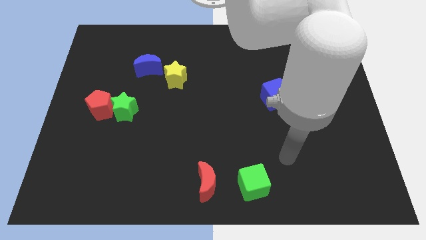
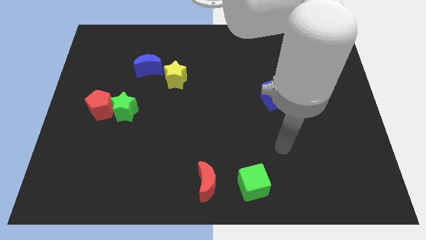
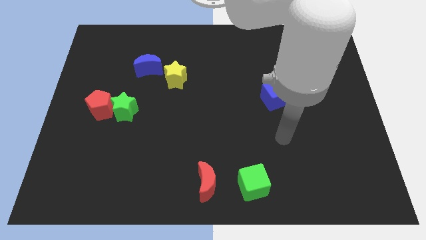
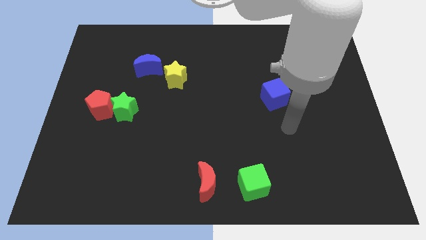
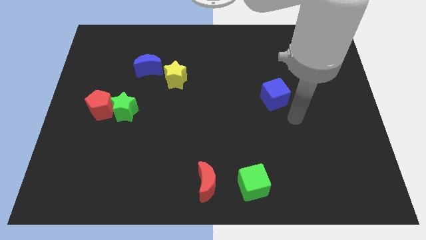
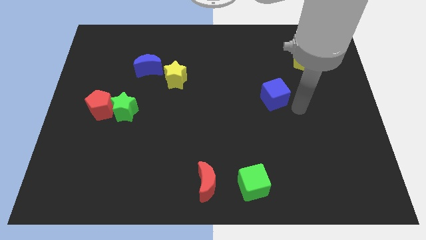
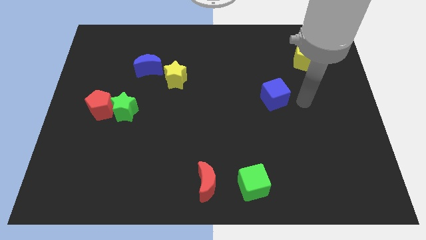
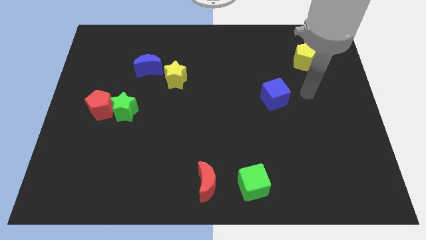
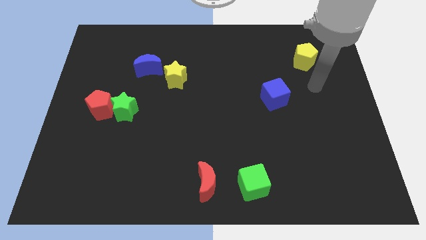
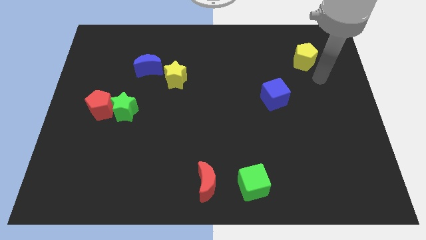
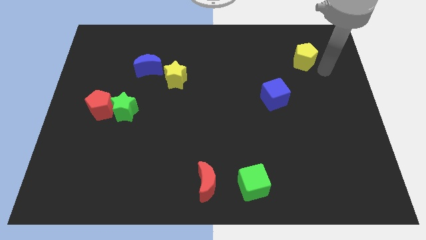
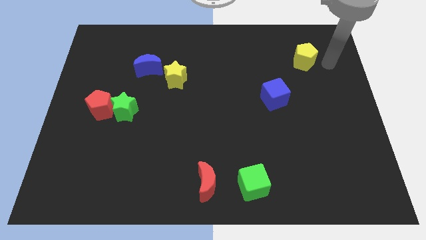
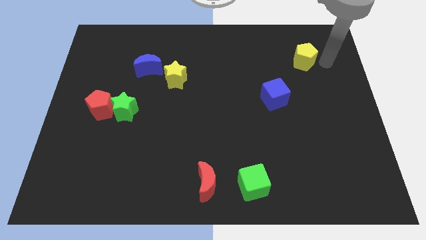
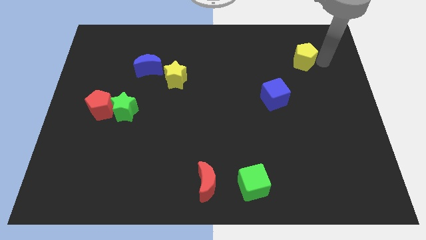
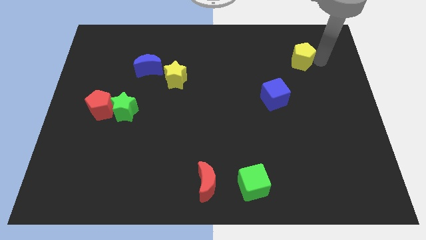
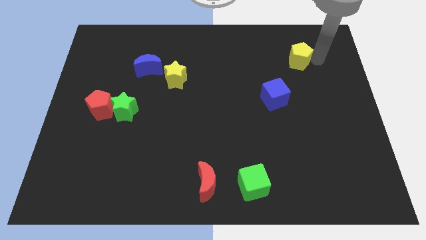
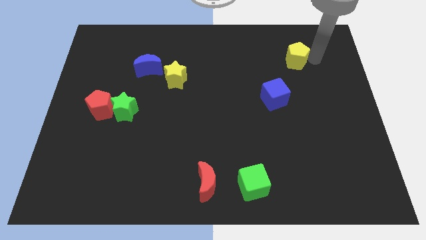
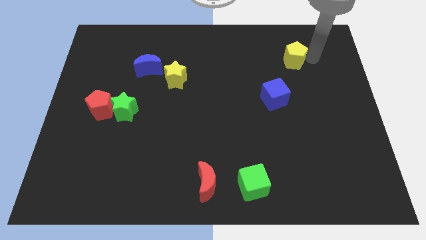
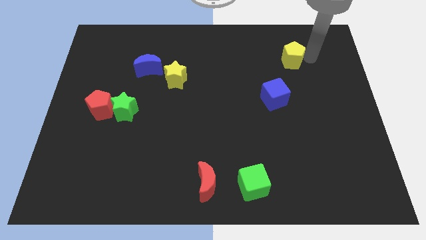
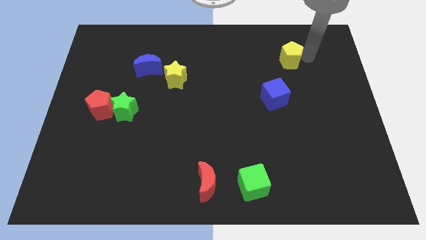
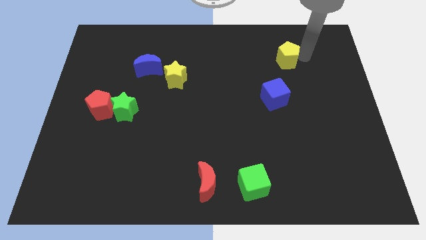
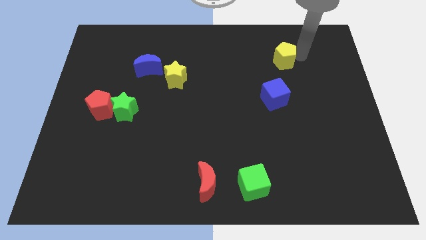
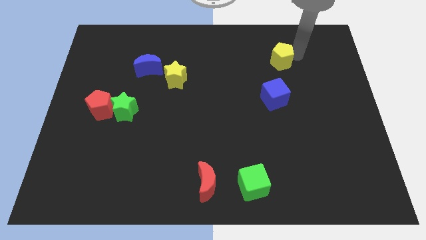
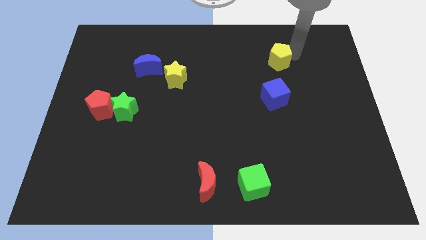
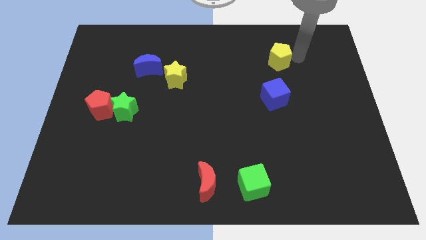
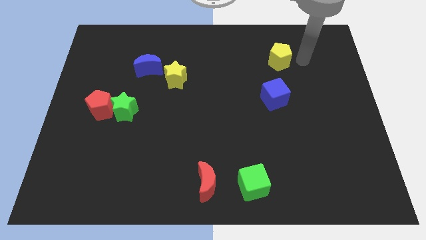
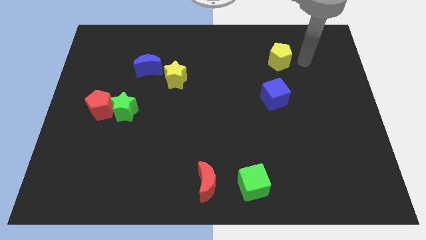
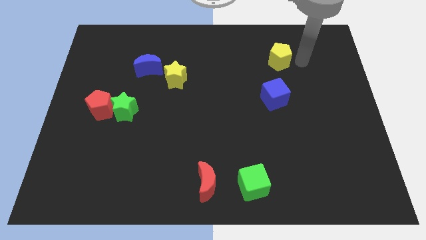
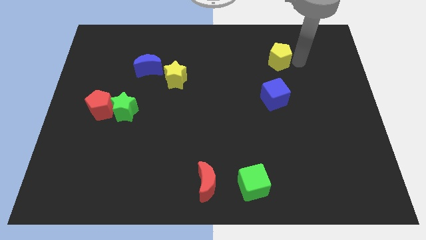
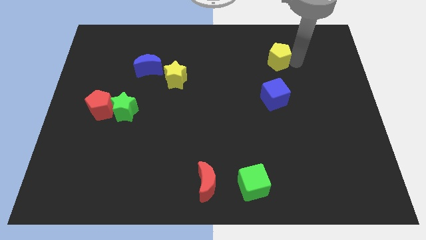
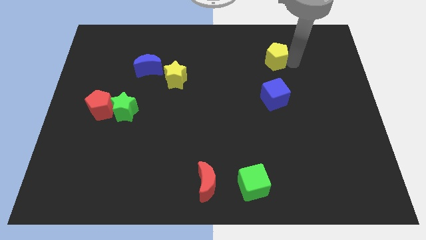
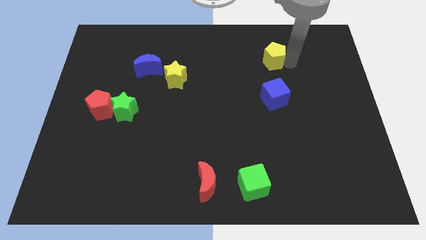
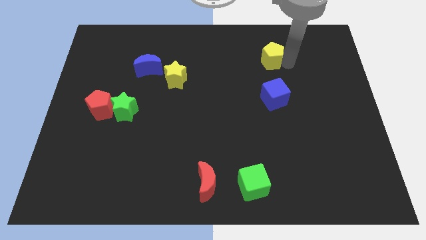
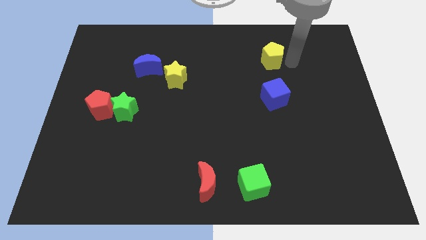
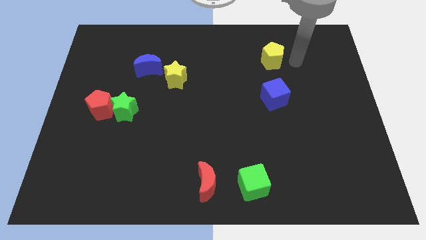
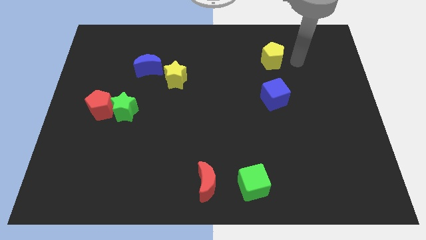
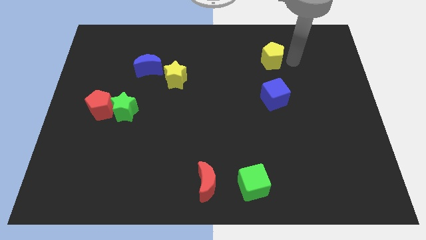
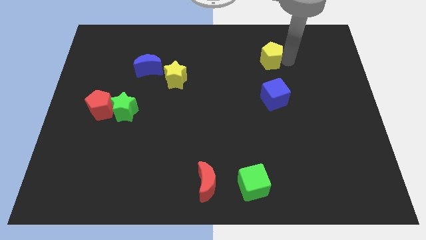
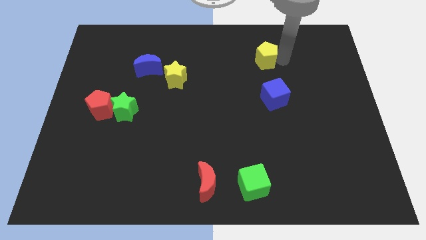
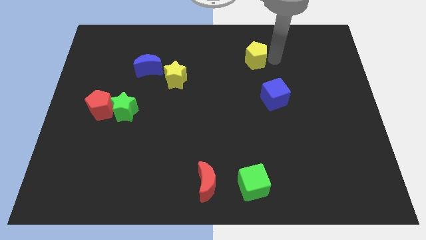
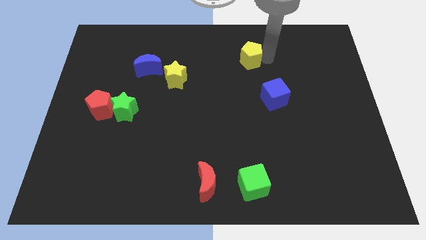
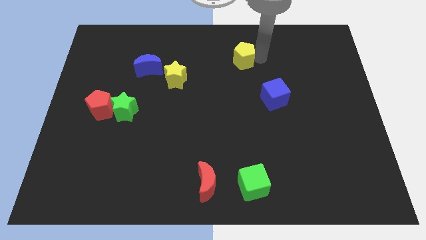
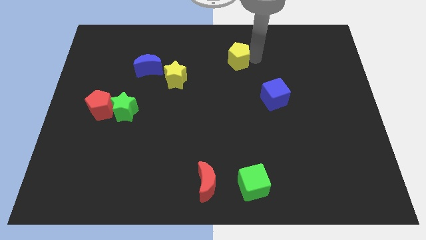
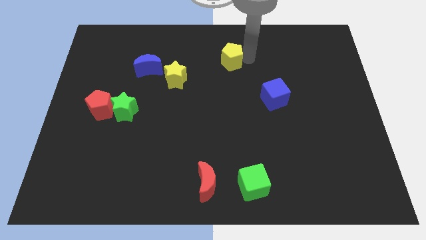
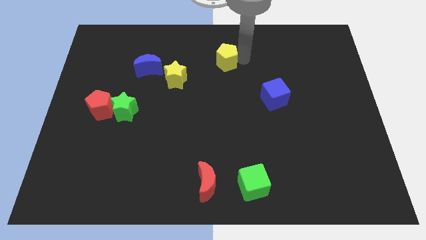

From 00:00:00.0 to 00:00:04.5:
push the yellow pentagon left

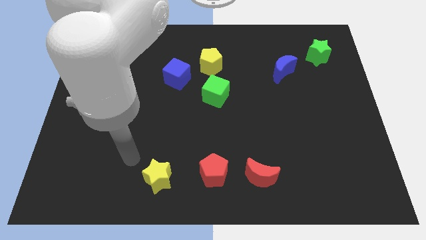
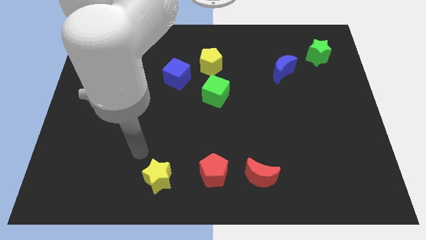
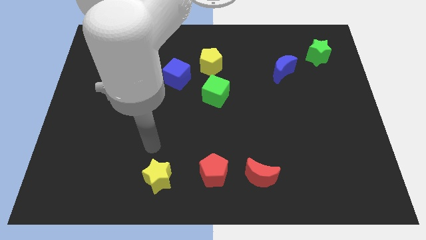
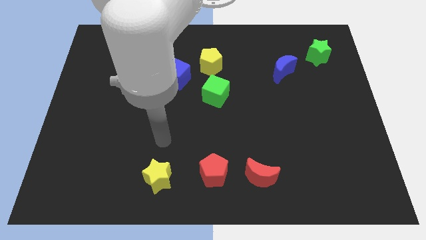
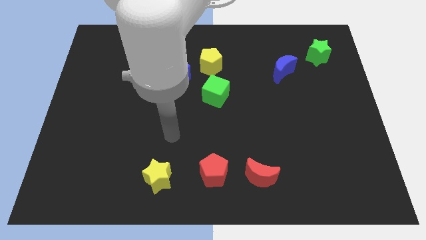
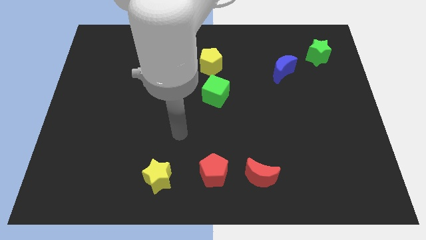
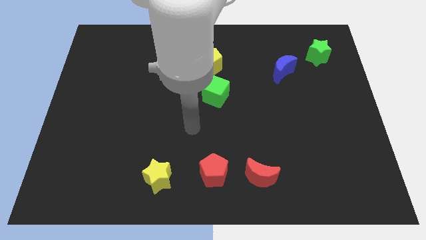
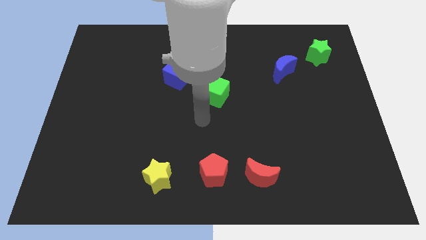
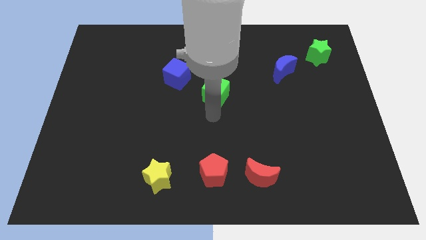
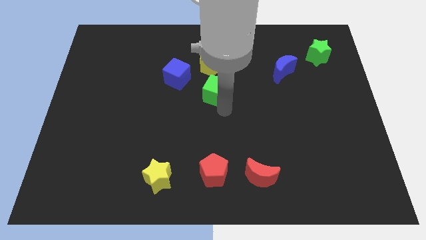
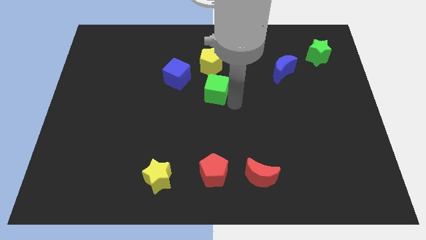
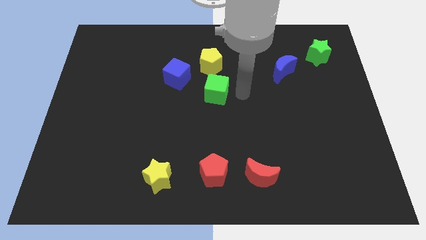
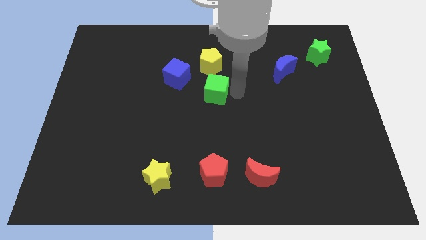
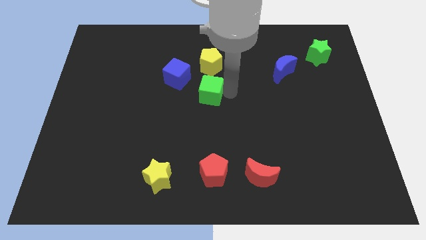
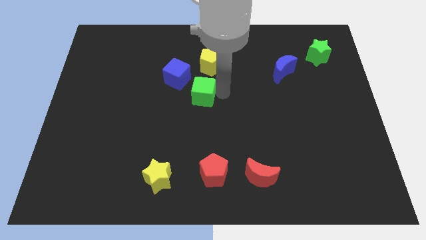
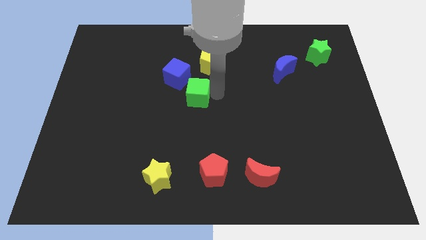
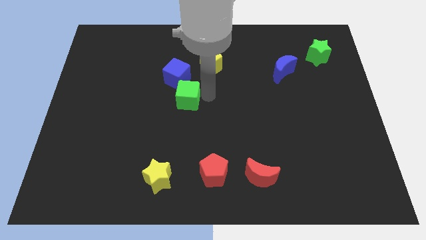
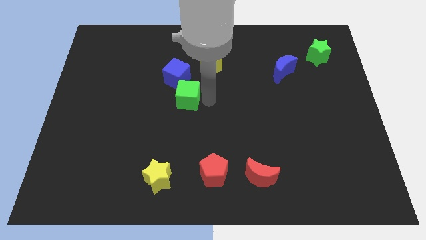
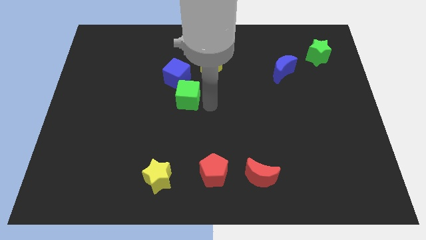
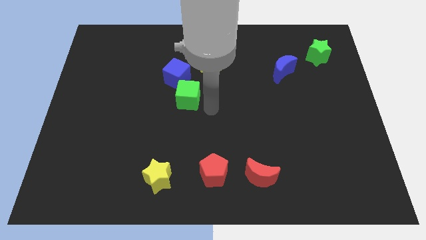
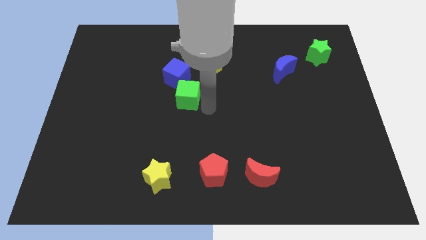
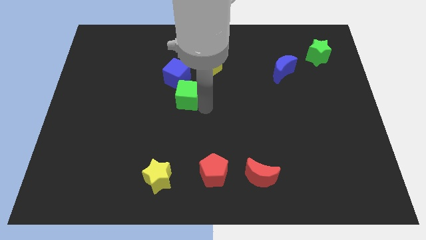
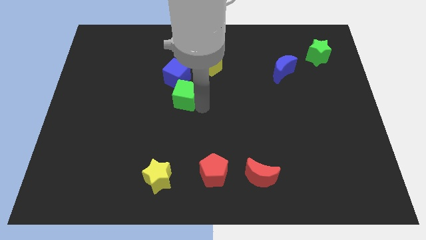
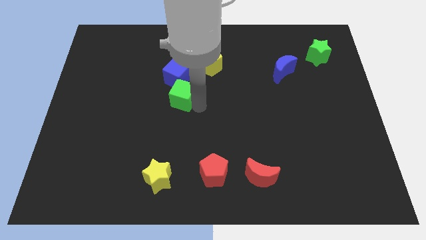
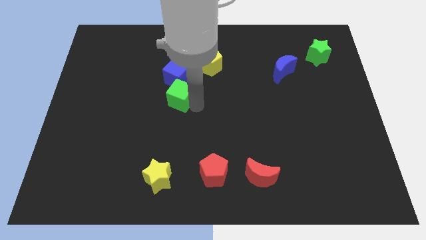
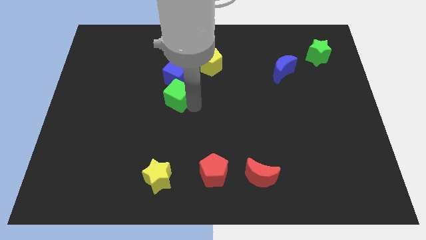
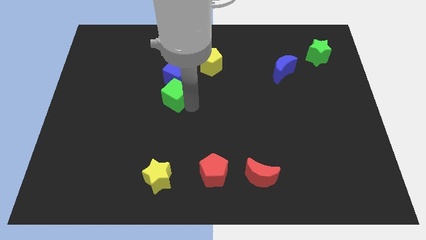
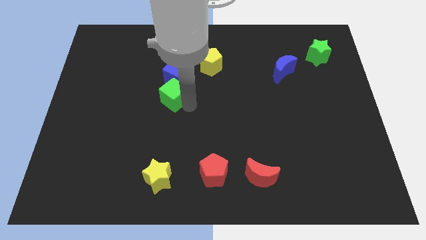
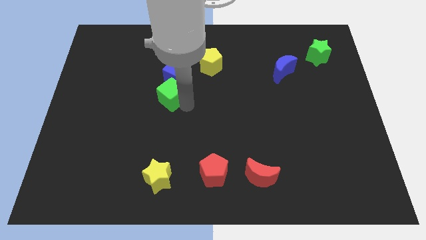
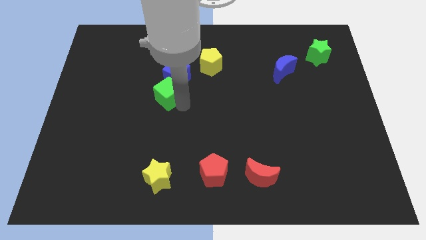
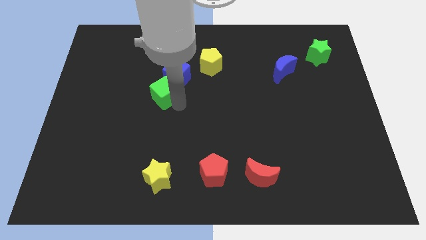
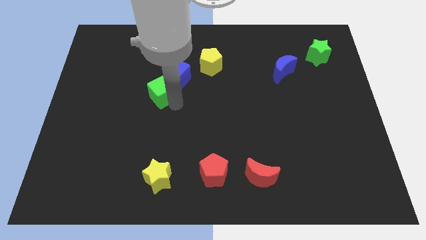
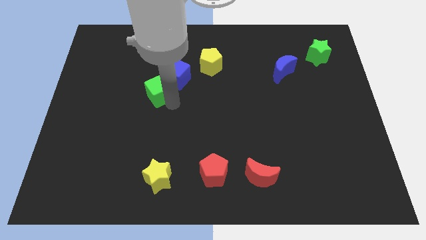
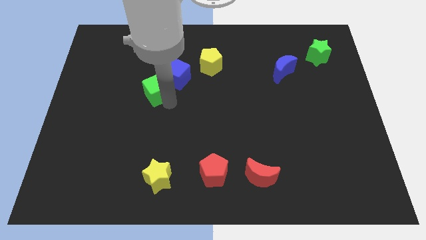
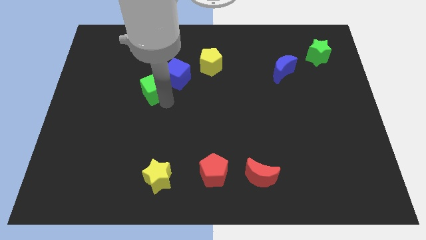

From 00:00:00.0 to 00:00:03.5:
move the green cube diagonally upwards and to the left a bit
